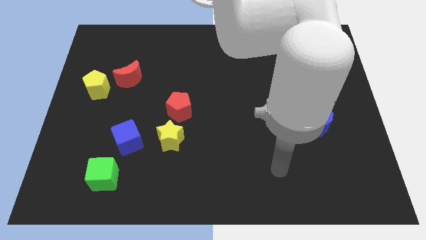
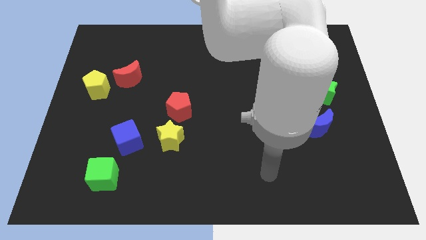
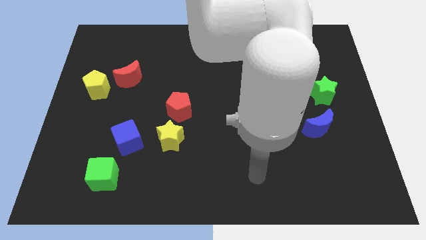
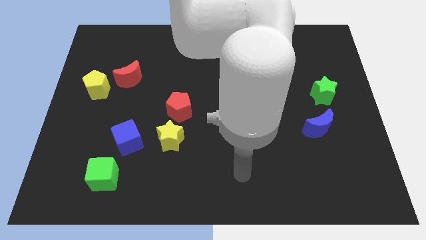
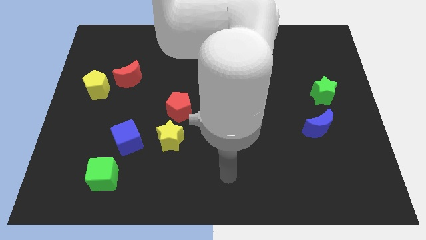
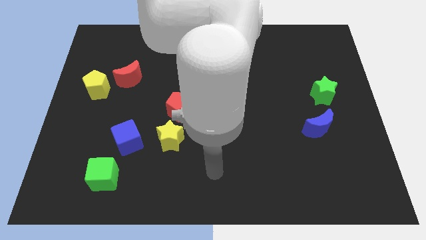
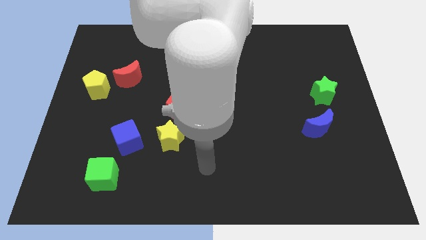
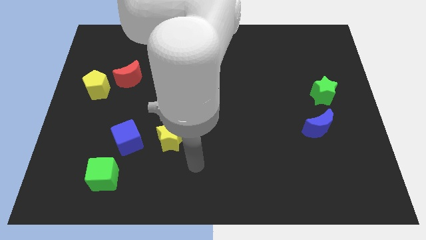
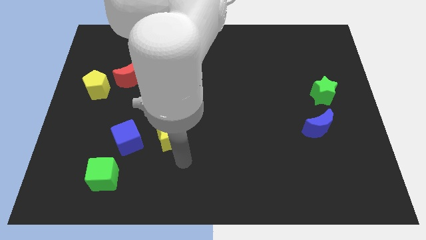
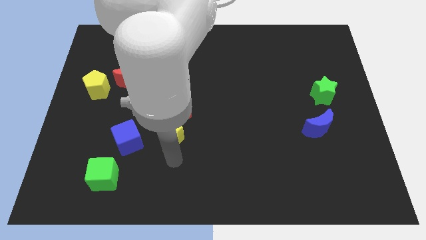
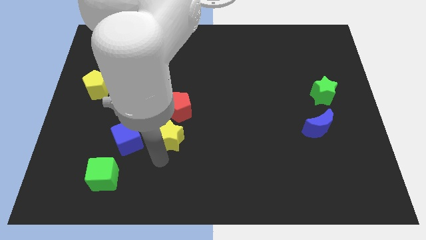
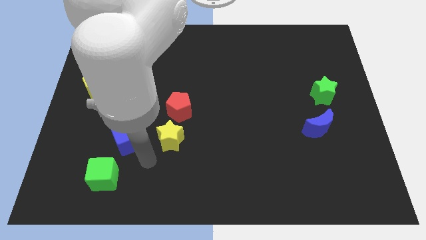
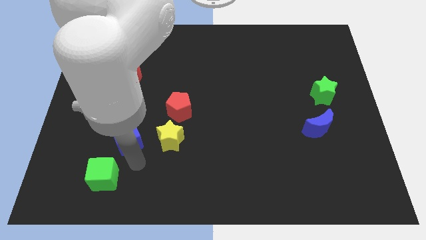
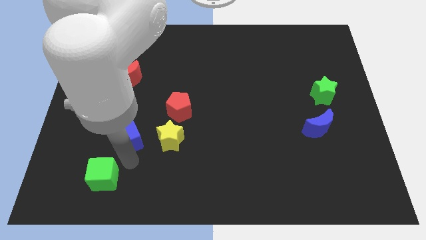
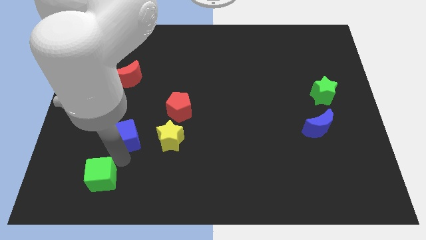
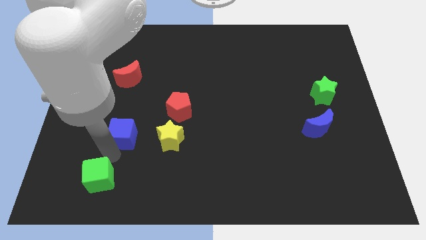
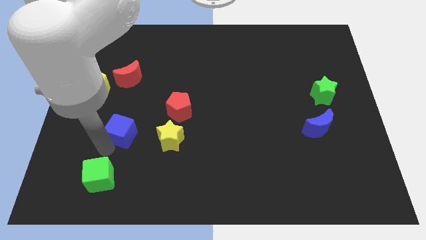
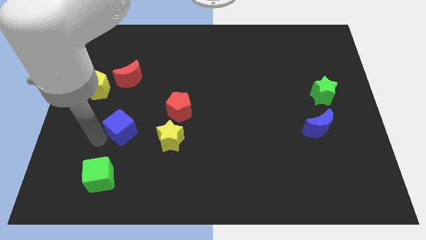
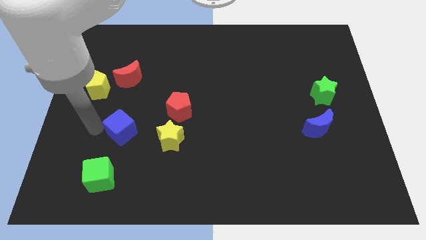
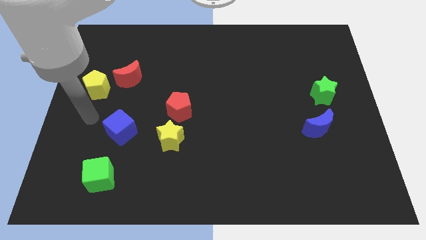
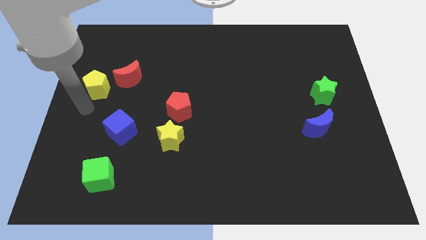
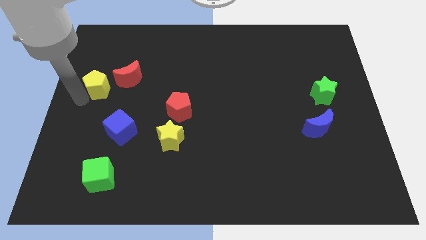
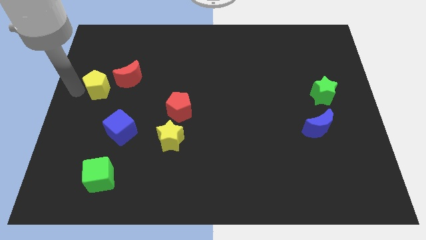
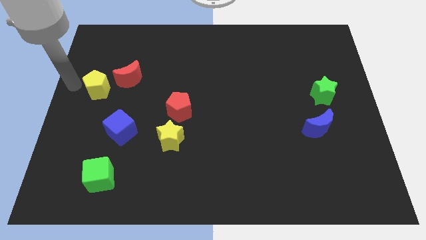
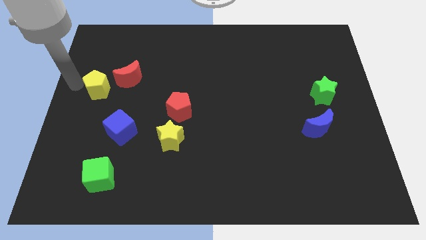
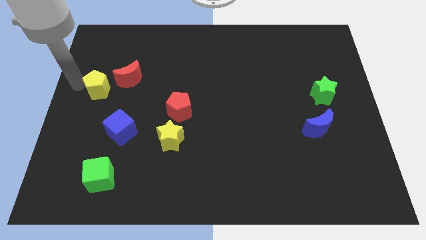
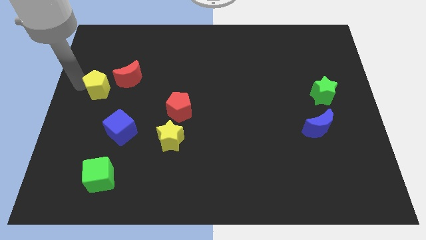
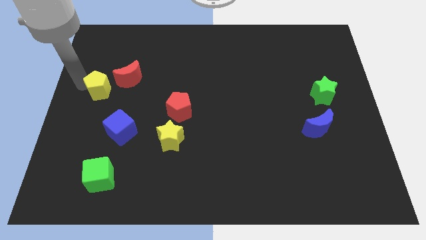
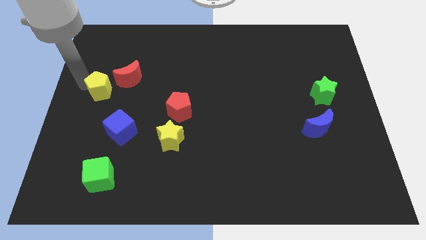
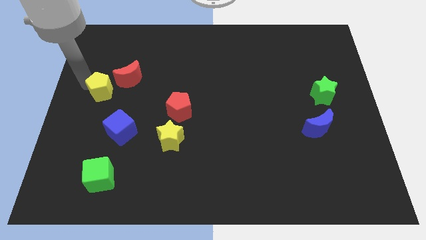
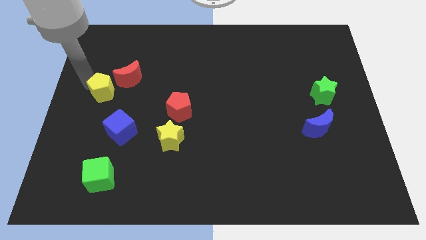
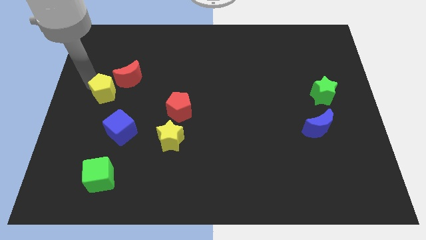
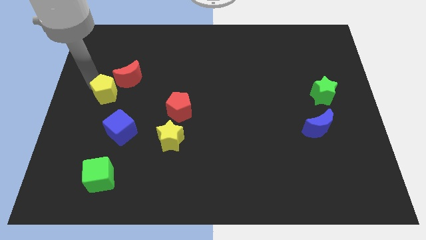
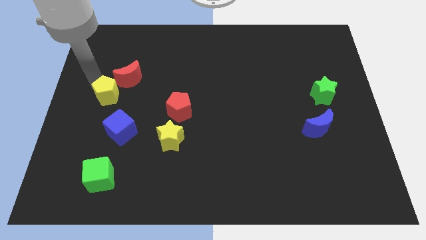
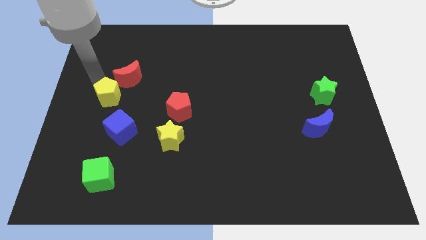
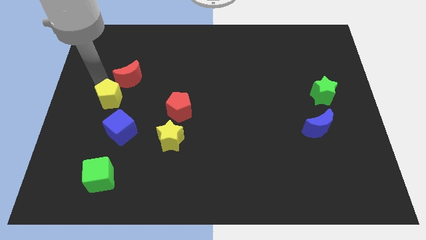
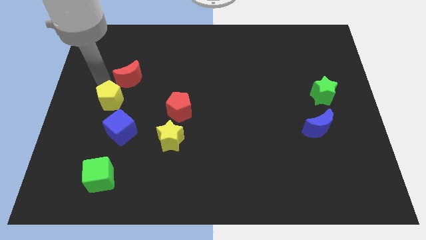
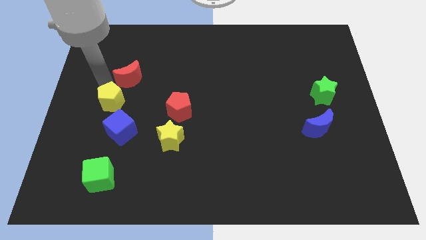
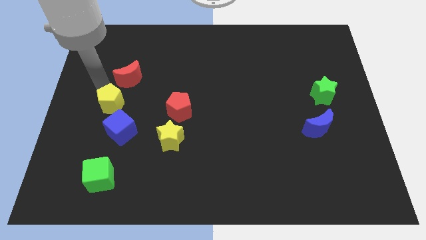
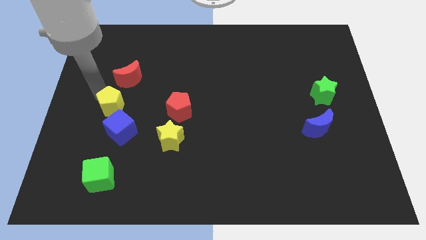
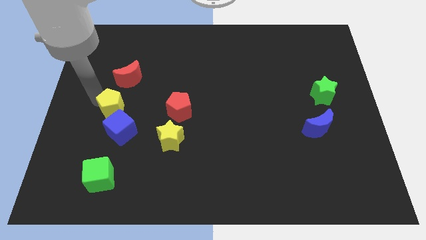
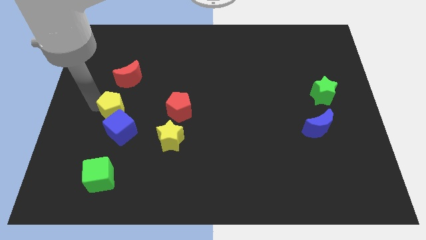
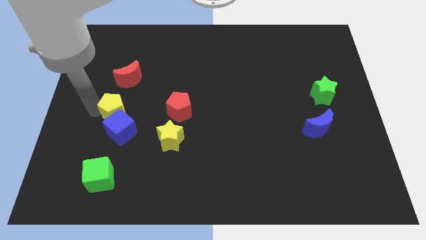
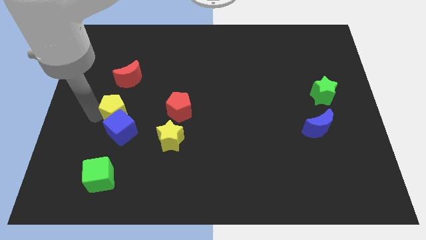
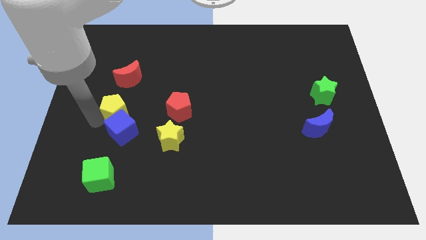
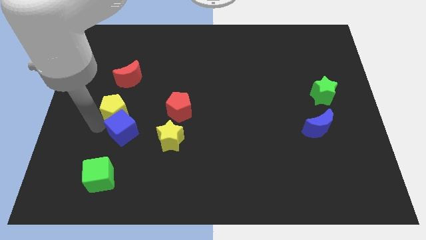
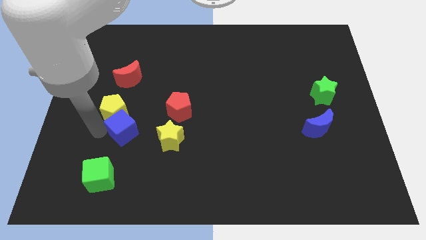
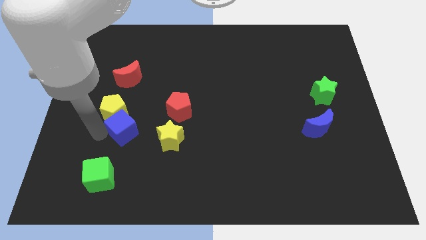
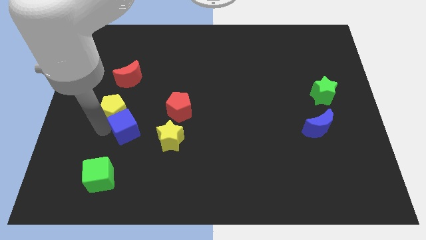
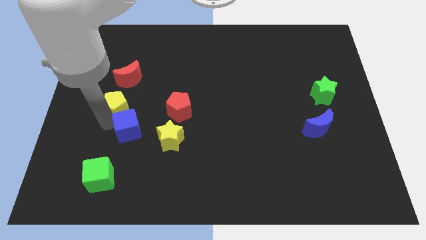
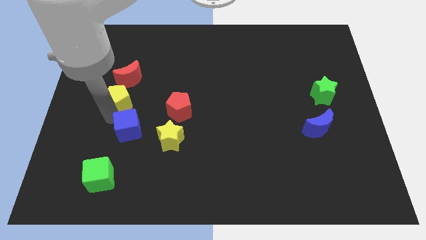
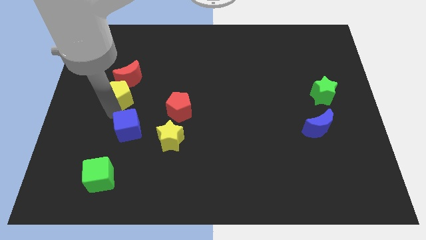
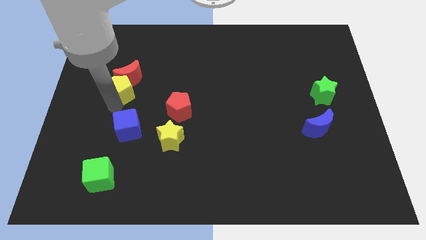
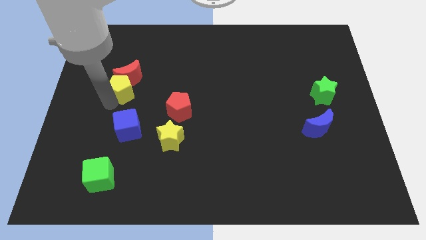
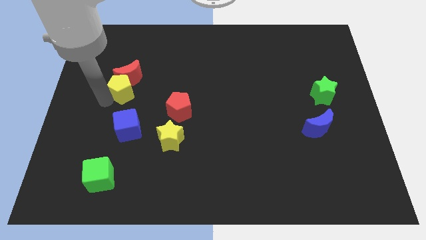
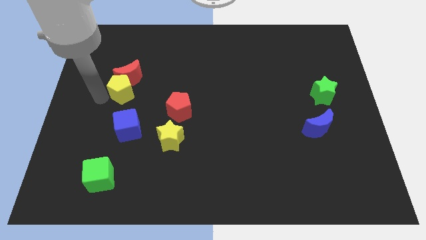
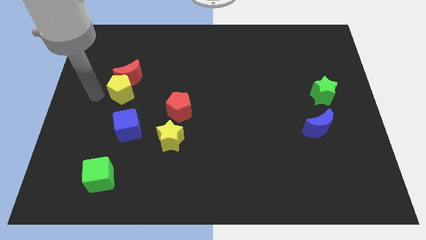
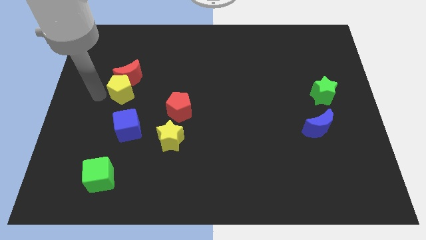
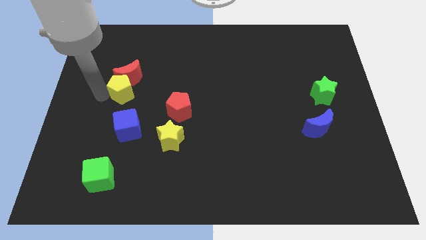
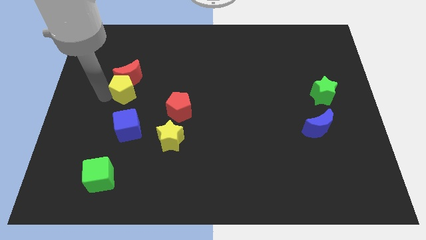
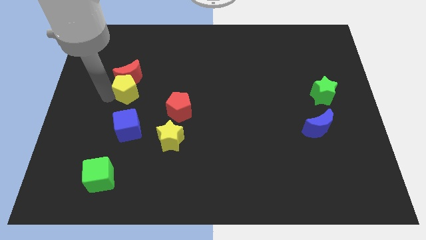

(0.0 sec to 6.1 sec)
push the yellow pentagon slightly right

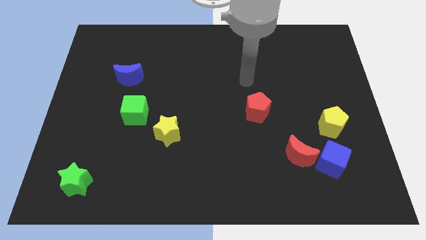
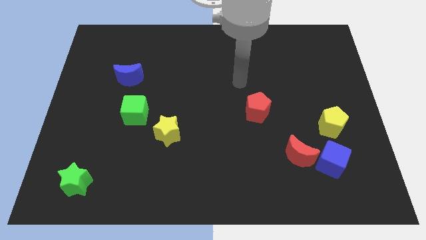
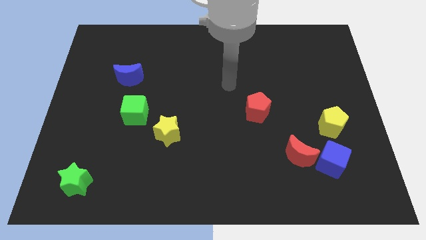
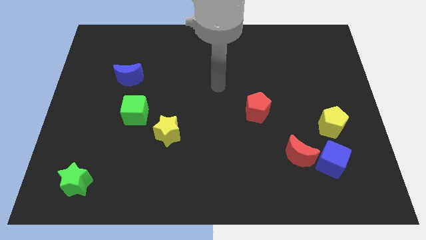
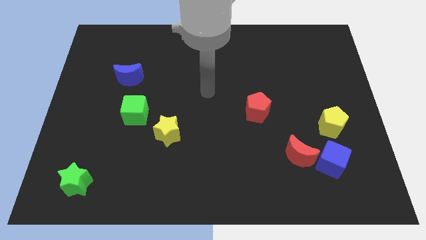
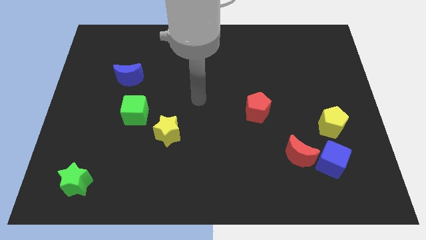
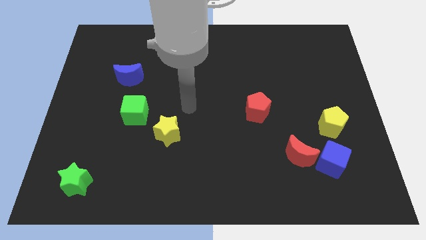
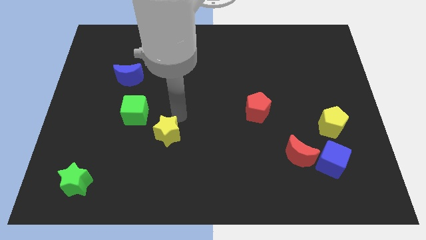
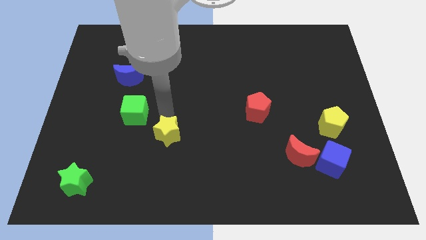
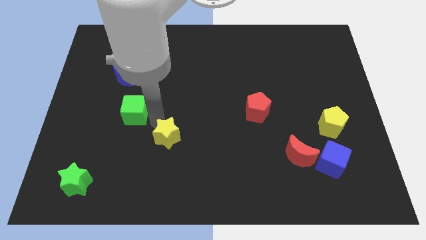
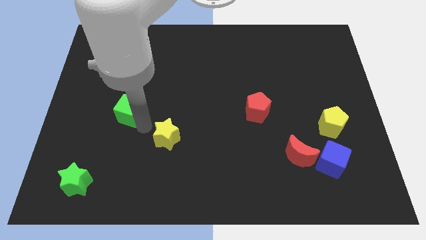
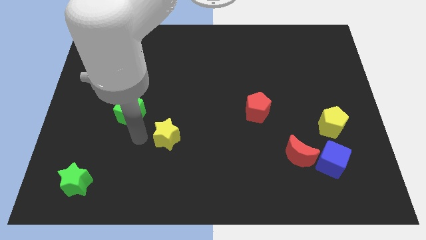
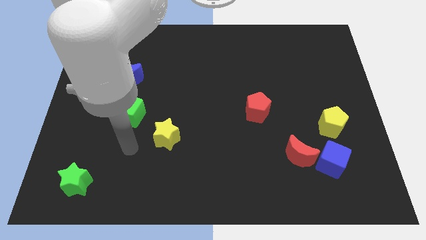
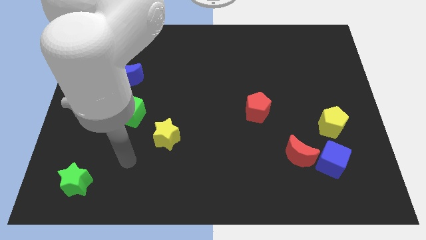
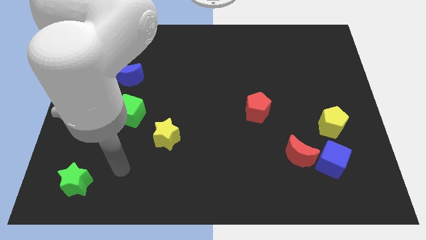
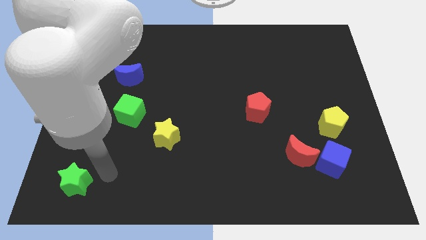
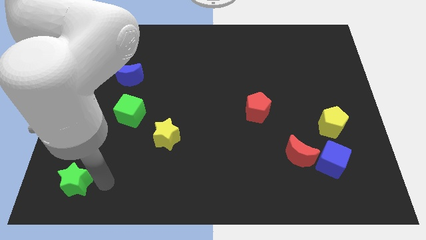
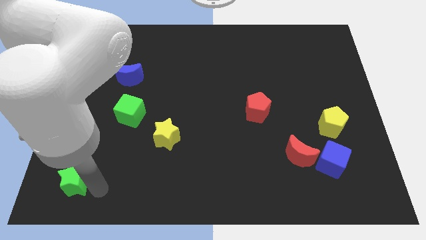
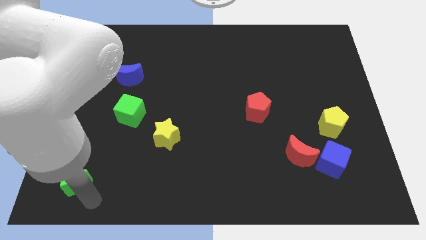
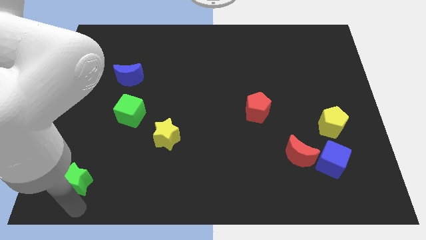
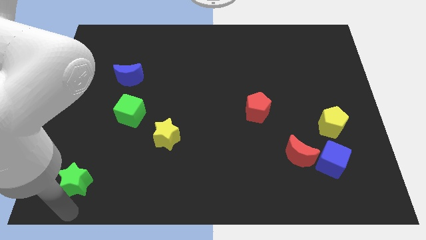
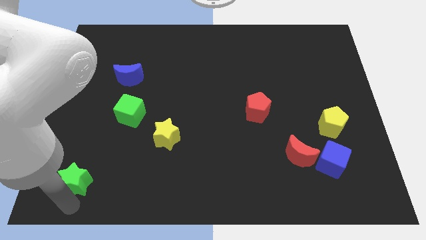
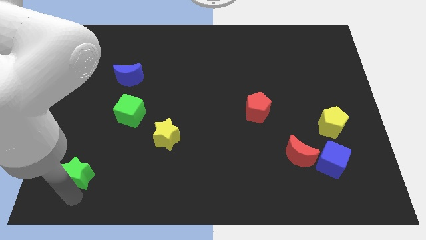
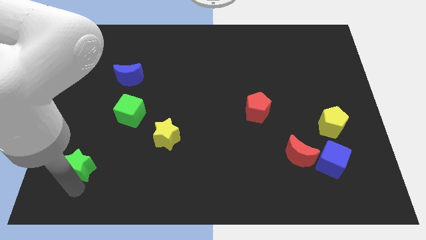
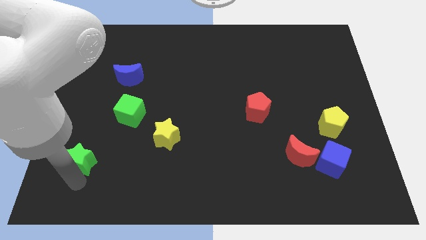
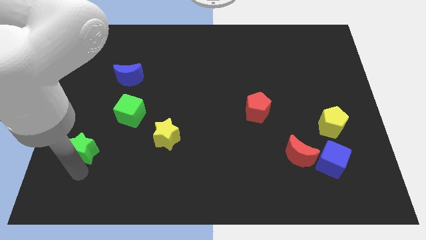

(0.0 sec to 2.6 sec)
slightly move the green star upwards
